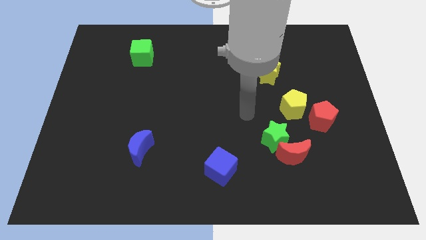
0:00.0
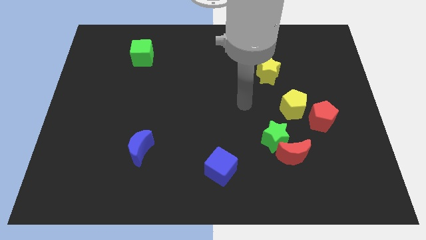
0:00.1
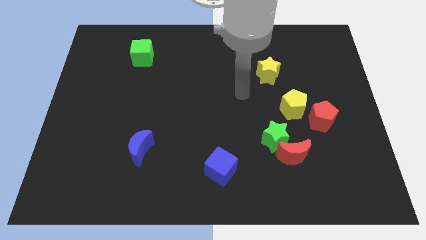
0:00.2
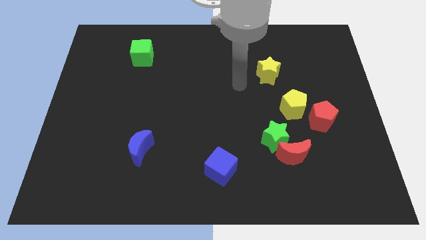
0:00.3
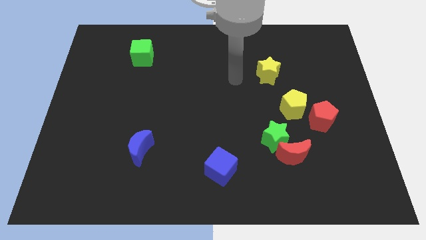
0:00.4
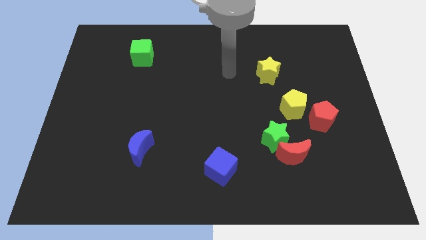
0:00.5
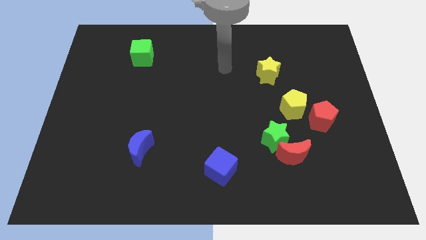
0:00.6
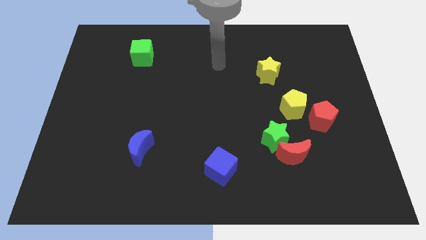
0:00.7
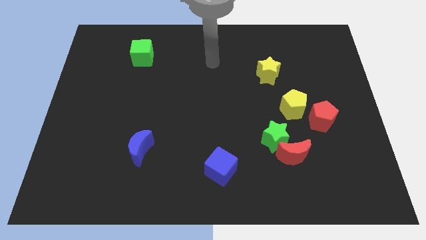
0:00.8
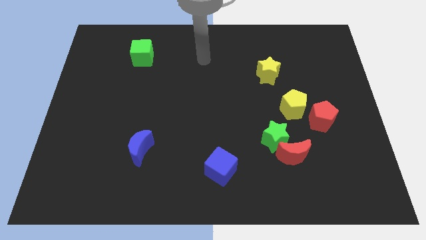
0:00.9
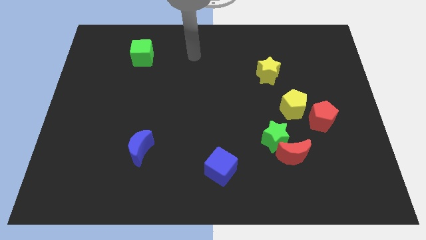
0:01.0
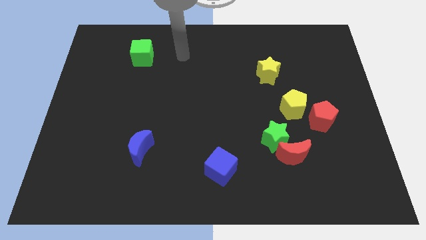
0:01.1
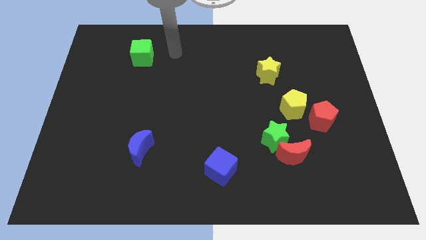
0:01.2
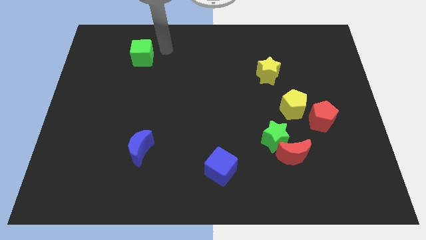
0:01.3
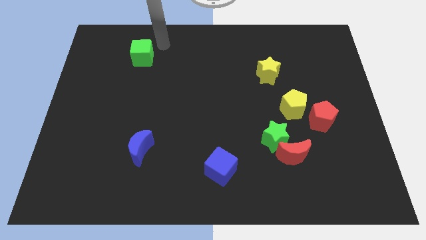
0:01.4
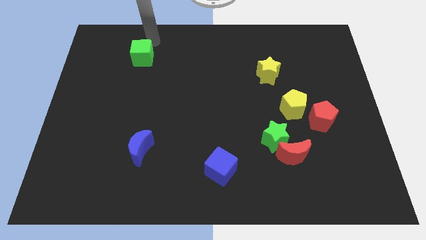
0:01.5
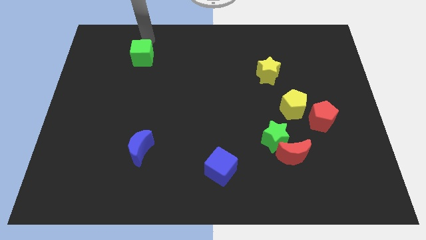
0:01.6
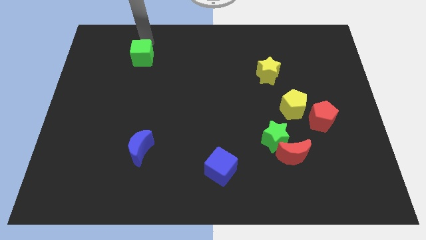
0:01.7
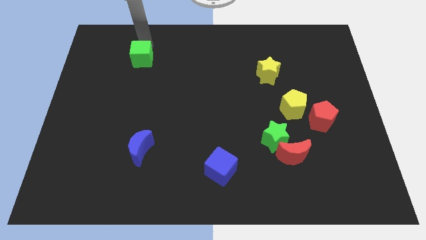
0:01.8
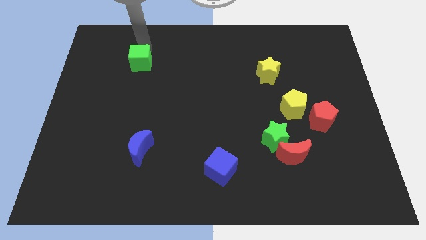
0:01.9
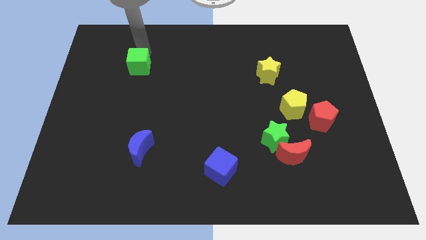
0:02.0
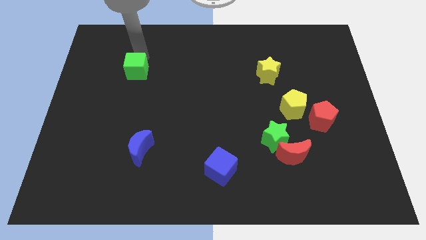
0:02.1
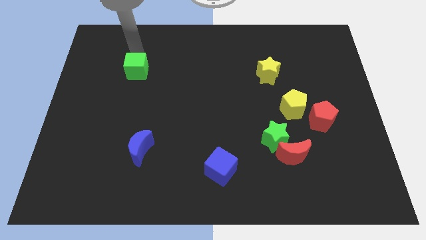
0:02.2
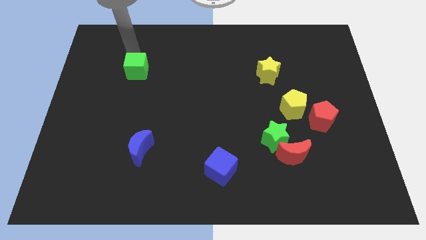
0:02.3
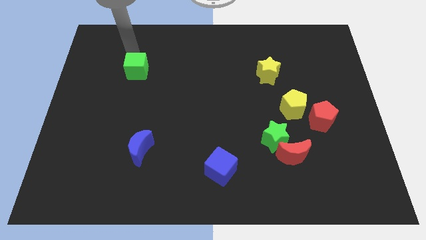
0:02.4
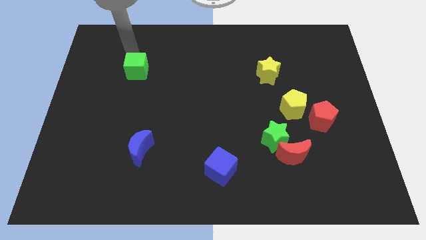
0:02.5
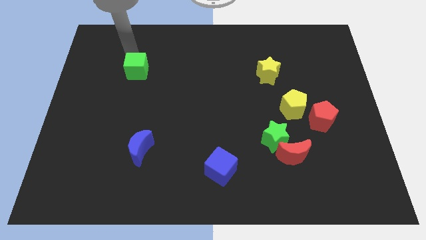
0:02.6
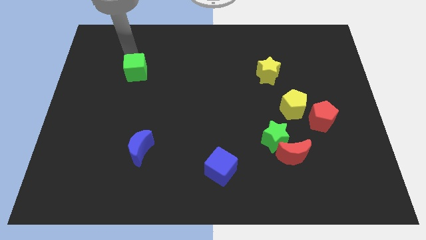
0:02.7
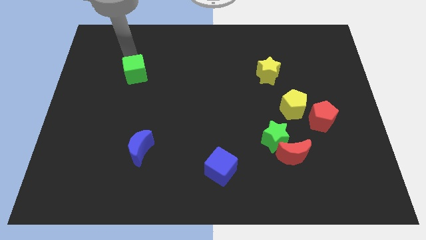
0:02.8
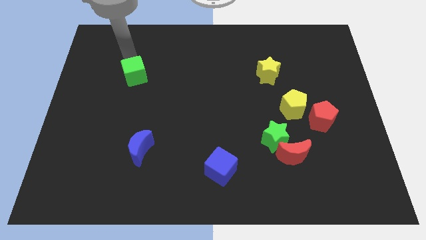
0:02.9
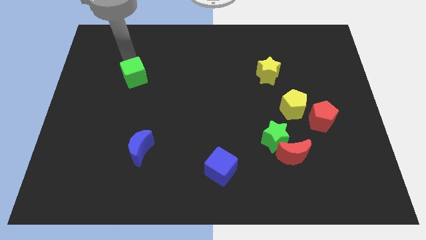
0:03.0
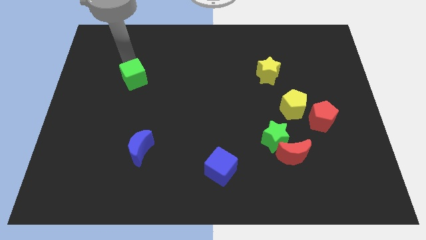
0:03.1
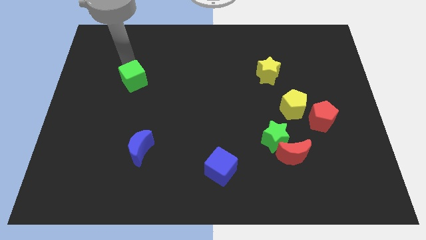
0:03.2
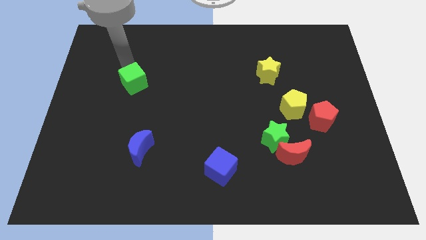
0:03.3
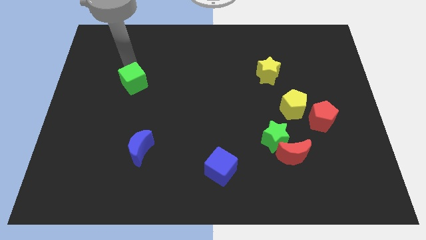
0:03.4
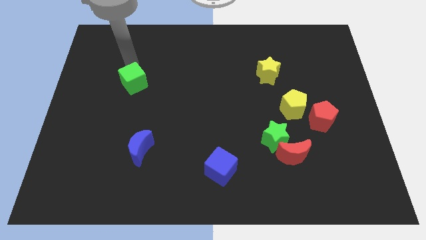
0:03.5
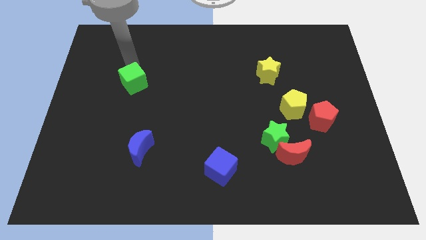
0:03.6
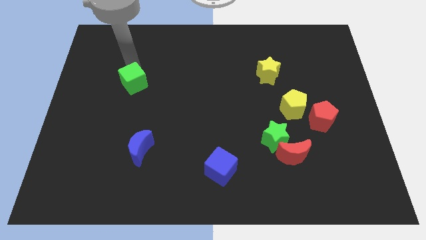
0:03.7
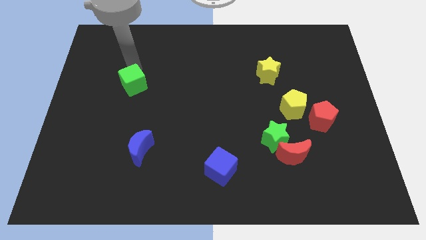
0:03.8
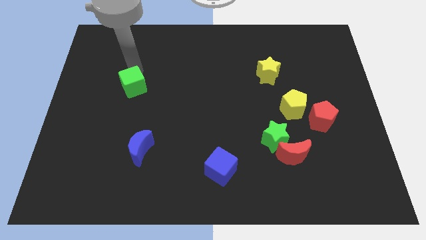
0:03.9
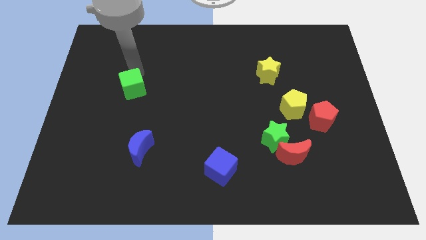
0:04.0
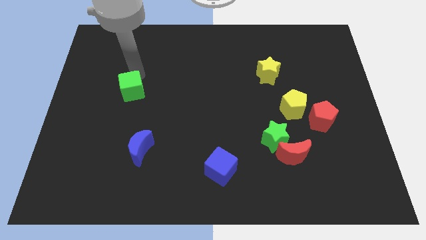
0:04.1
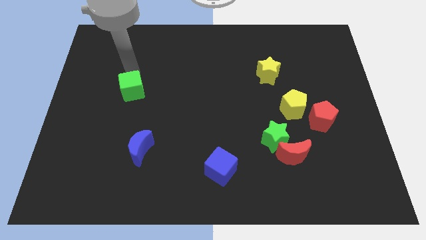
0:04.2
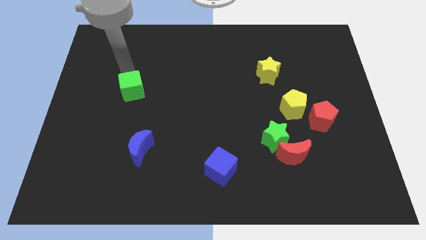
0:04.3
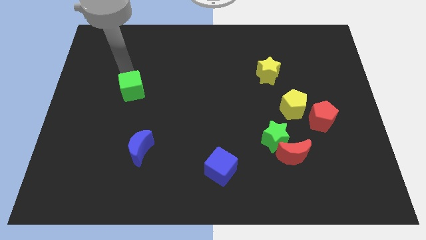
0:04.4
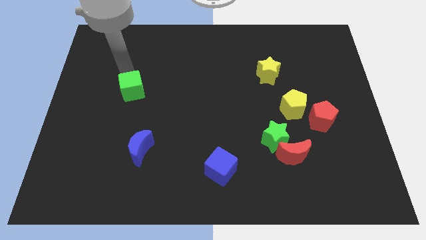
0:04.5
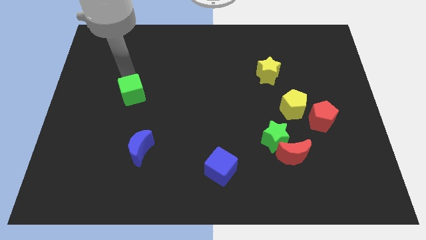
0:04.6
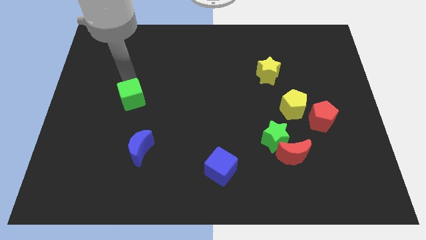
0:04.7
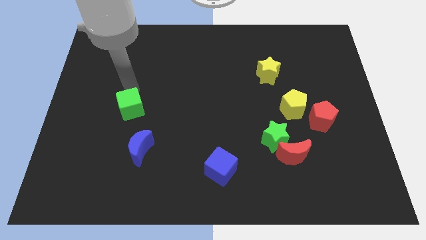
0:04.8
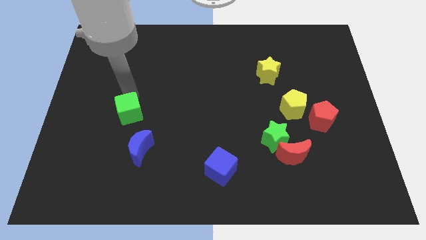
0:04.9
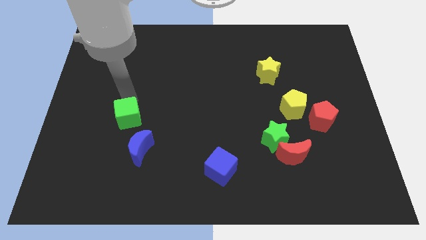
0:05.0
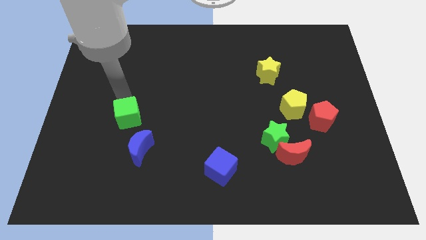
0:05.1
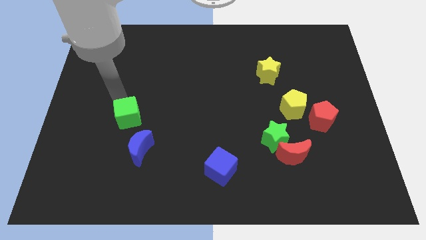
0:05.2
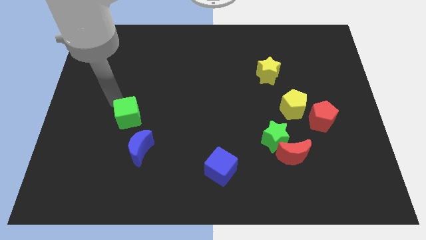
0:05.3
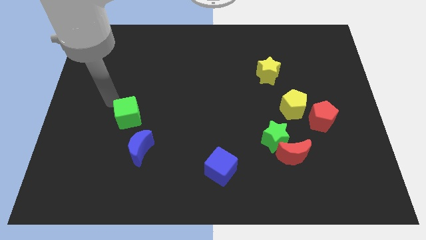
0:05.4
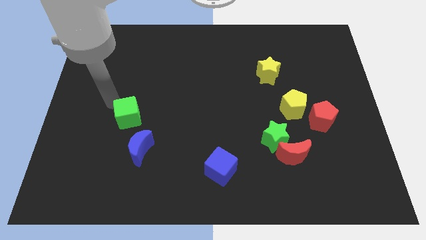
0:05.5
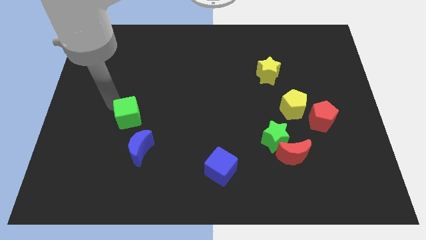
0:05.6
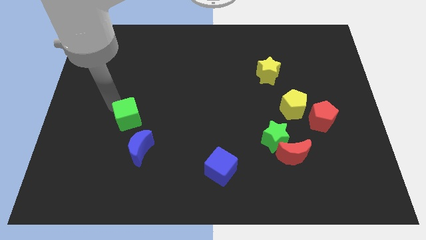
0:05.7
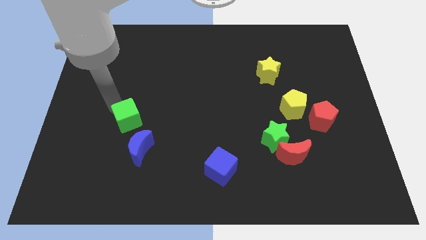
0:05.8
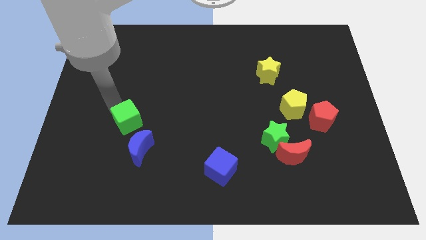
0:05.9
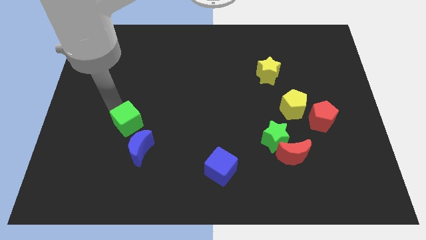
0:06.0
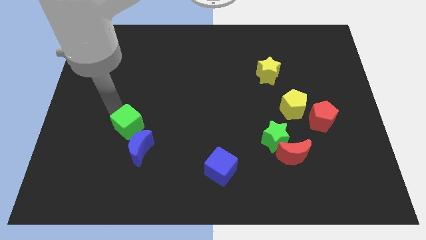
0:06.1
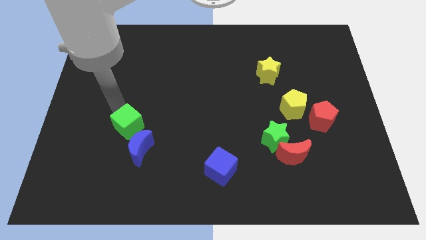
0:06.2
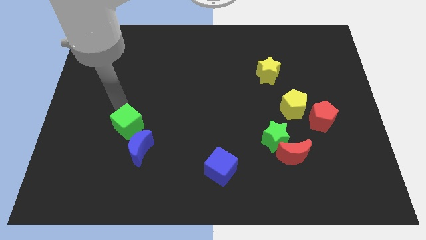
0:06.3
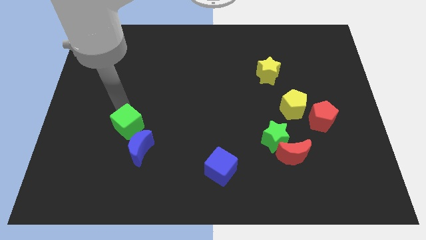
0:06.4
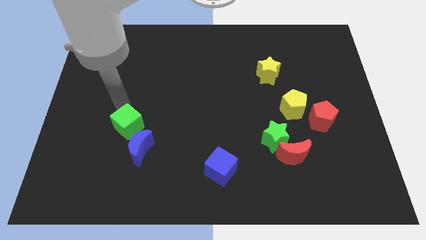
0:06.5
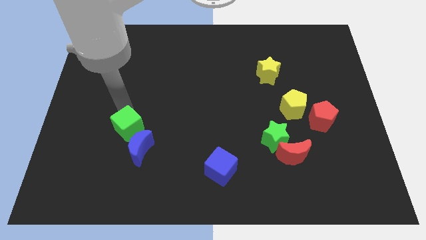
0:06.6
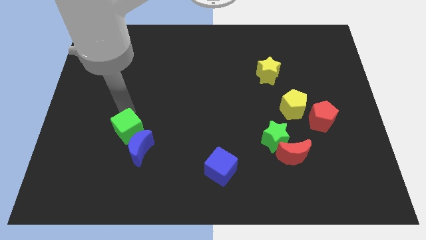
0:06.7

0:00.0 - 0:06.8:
move the green cube close to the blue moon
